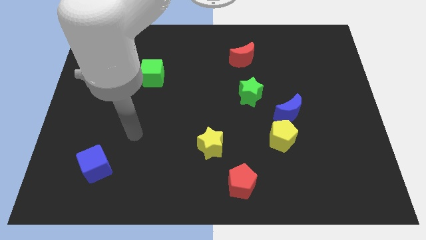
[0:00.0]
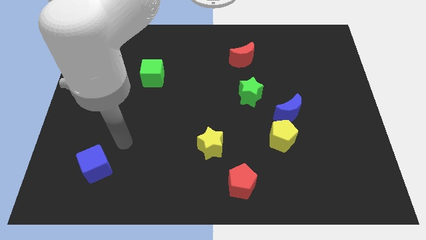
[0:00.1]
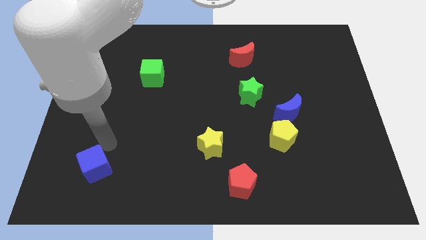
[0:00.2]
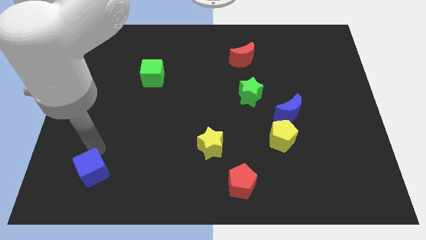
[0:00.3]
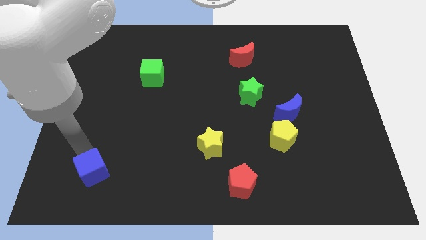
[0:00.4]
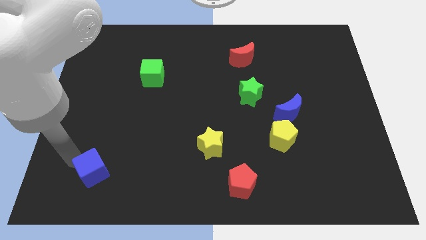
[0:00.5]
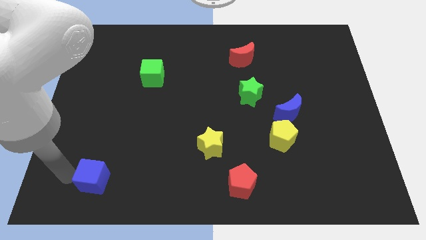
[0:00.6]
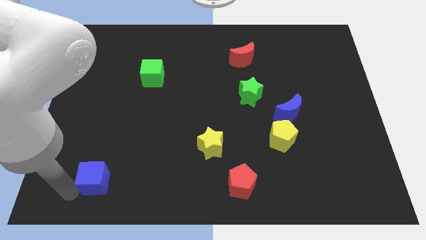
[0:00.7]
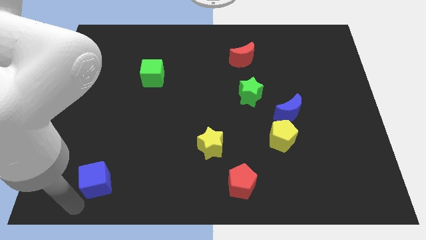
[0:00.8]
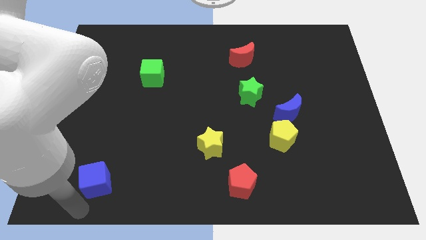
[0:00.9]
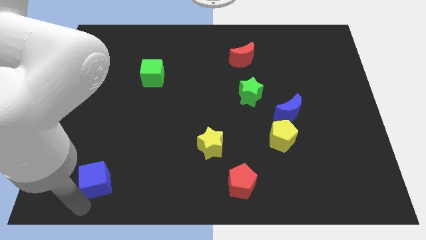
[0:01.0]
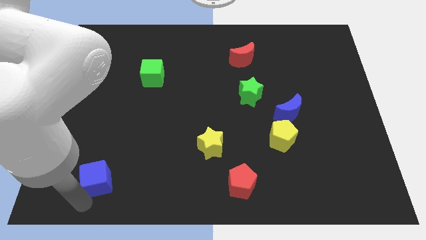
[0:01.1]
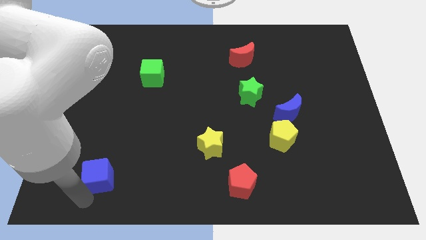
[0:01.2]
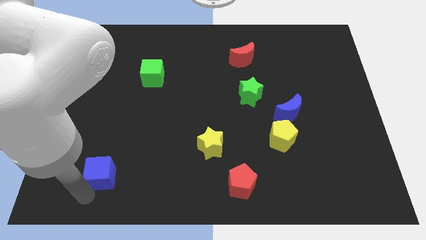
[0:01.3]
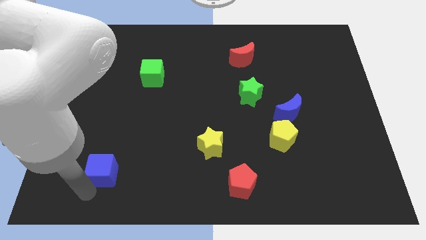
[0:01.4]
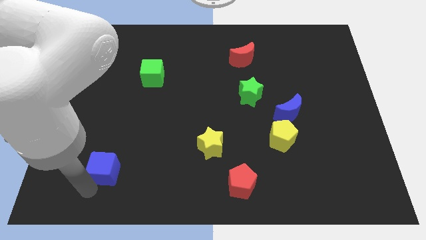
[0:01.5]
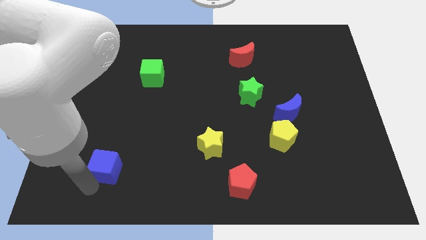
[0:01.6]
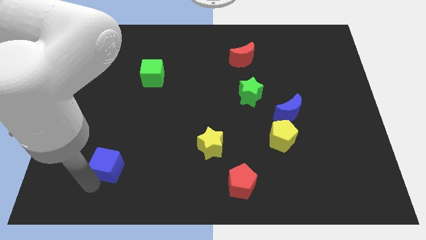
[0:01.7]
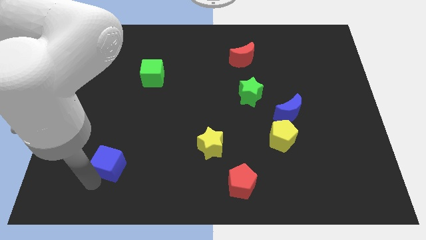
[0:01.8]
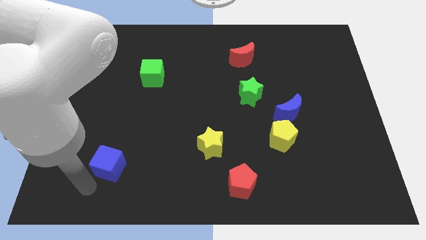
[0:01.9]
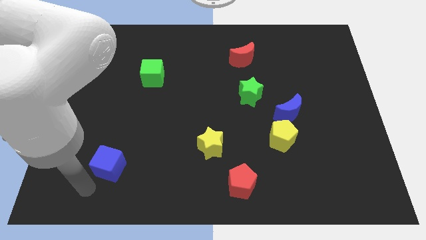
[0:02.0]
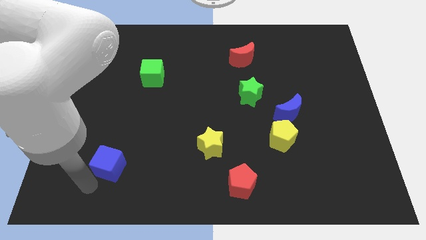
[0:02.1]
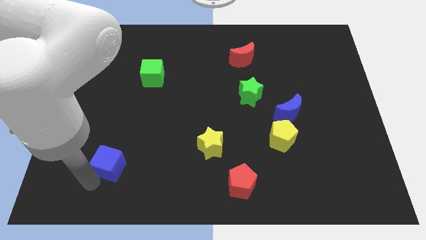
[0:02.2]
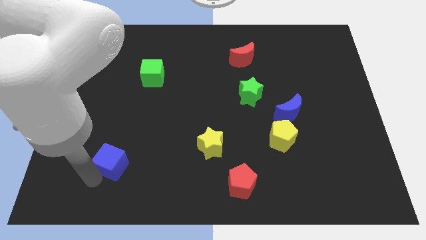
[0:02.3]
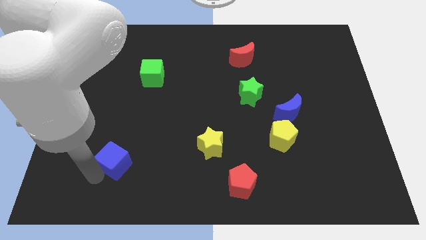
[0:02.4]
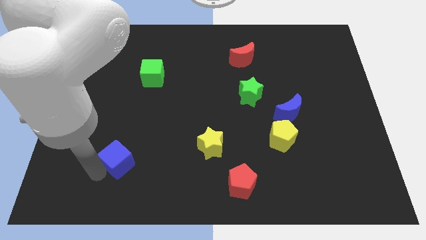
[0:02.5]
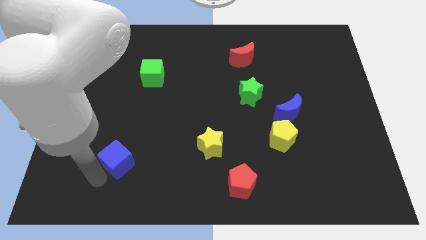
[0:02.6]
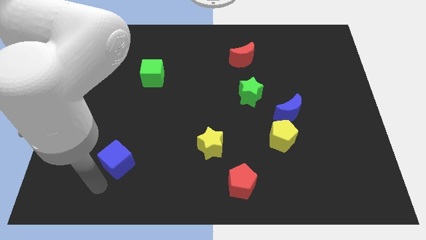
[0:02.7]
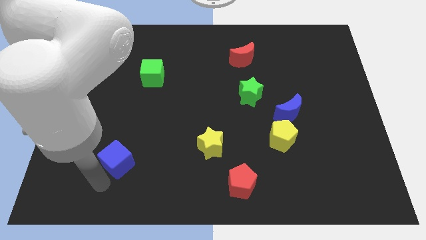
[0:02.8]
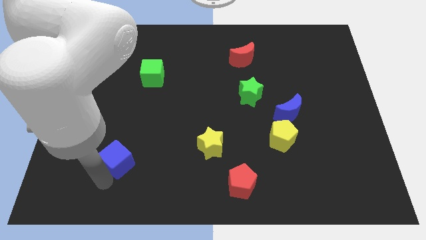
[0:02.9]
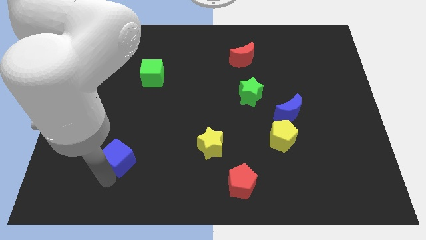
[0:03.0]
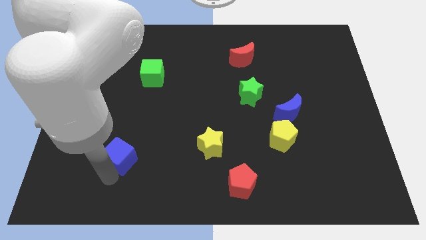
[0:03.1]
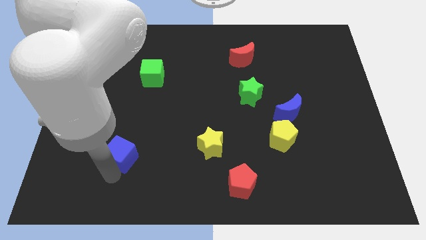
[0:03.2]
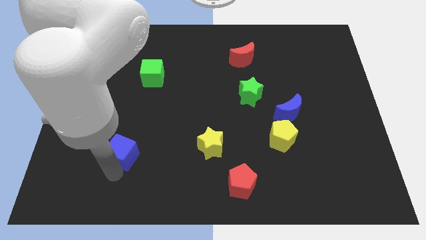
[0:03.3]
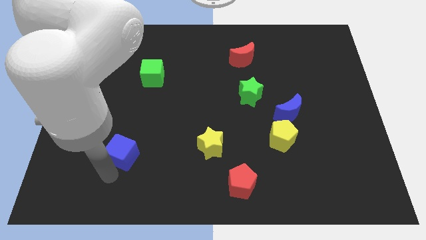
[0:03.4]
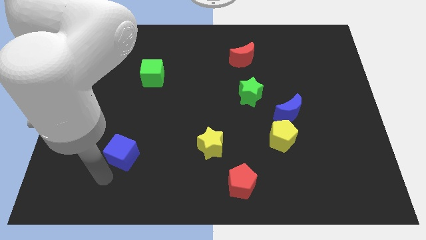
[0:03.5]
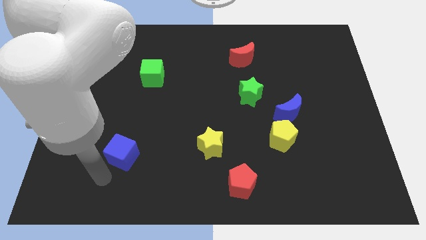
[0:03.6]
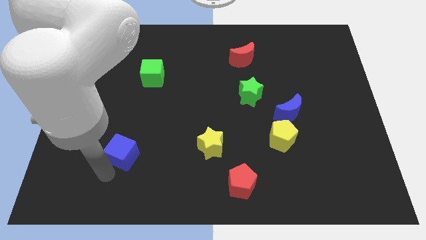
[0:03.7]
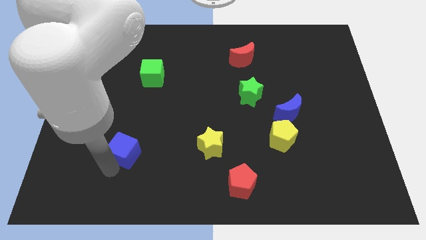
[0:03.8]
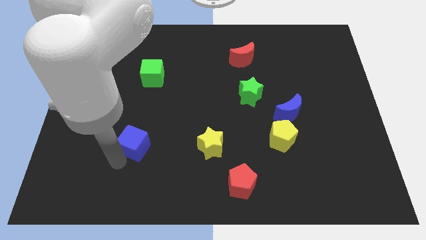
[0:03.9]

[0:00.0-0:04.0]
move the blue cube somewhat up and to the right diagonally

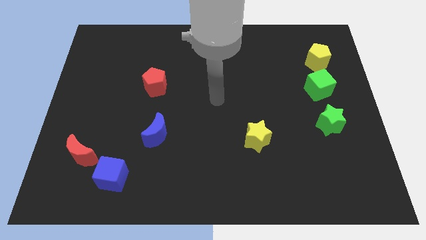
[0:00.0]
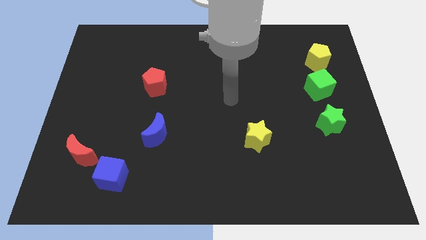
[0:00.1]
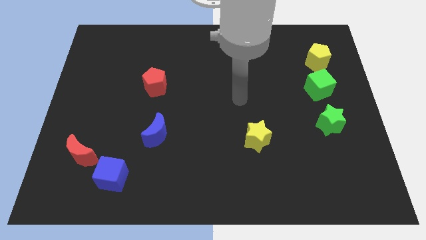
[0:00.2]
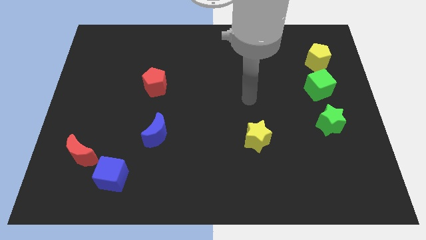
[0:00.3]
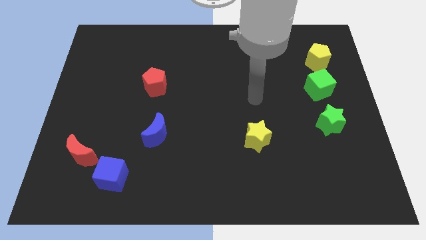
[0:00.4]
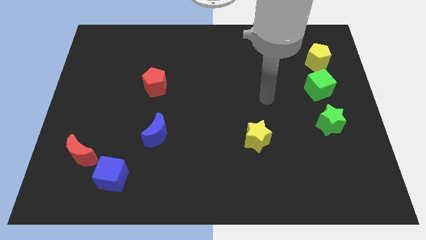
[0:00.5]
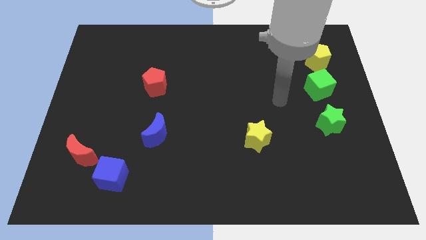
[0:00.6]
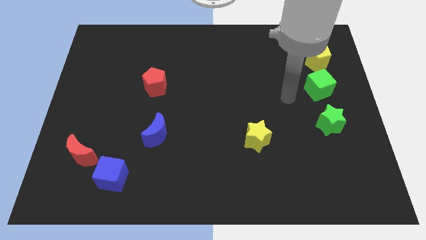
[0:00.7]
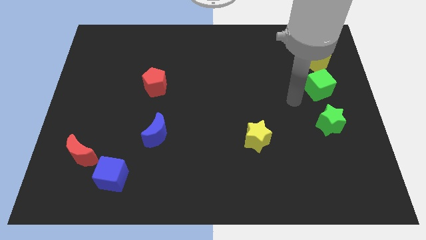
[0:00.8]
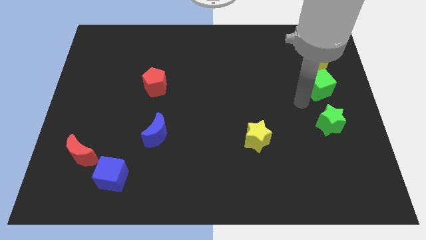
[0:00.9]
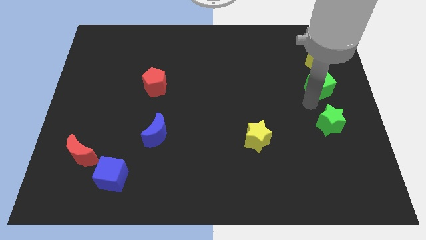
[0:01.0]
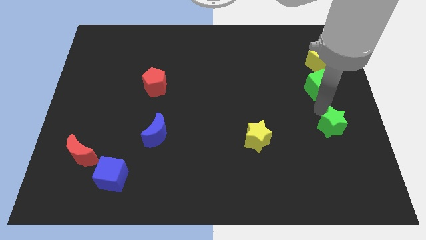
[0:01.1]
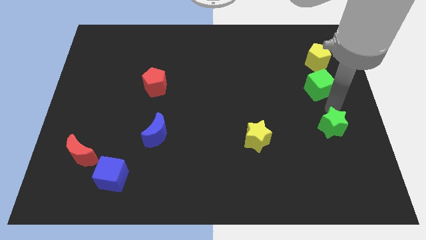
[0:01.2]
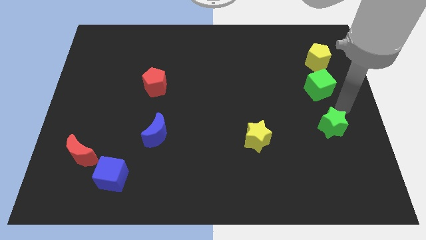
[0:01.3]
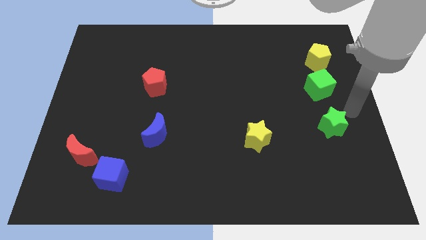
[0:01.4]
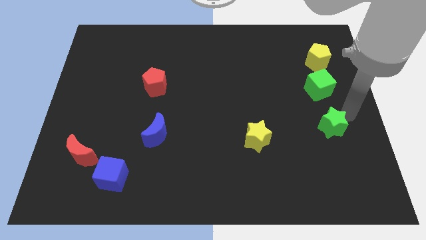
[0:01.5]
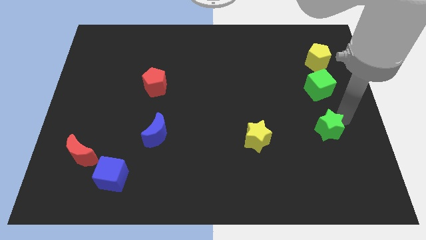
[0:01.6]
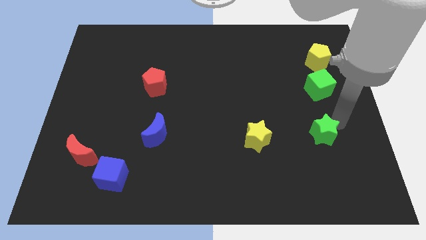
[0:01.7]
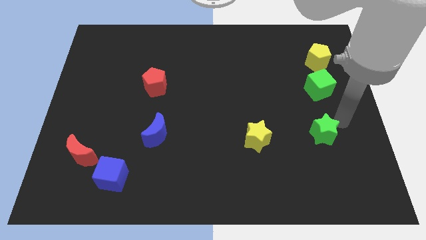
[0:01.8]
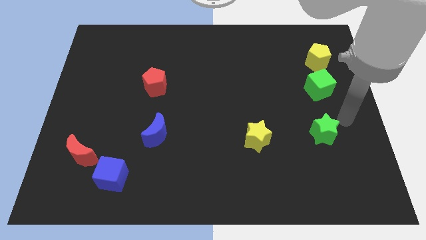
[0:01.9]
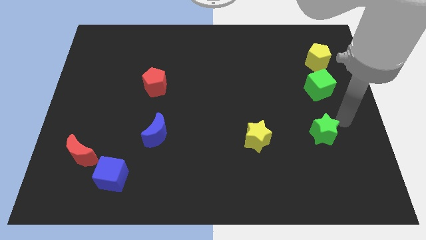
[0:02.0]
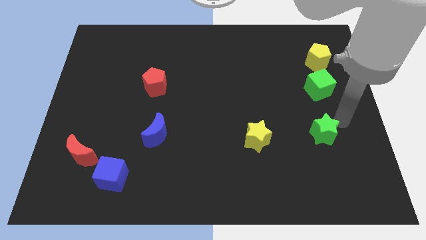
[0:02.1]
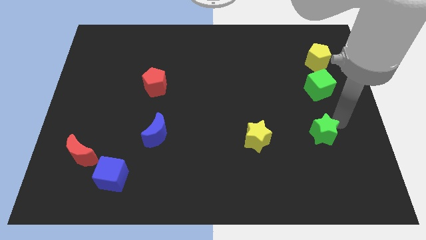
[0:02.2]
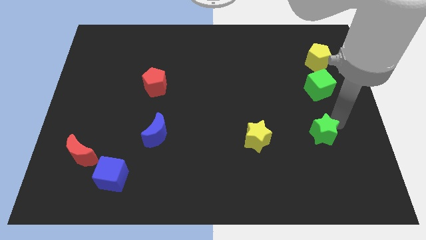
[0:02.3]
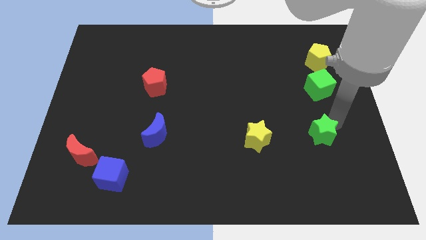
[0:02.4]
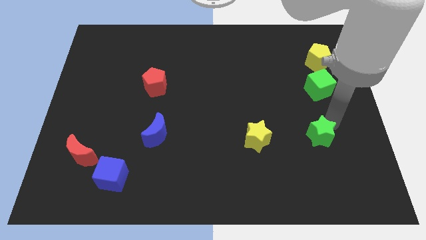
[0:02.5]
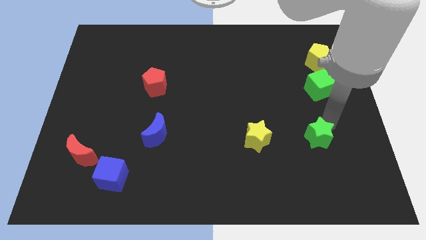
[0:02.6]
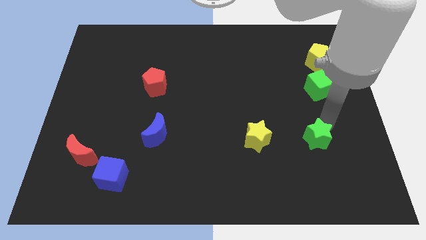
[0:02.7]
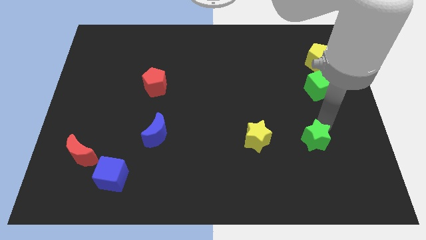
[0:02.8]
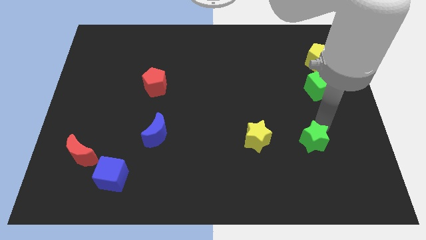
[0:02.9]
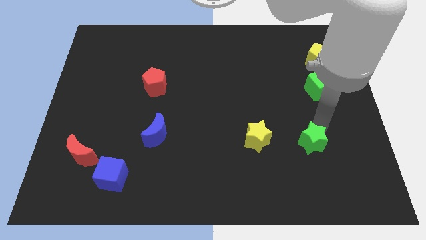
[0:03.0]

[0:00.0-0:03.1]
move the green star diagonally down and left a bit

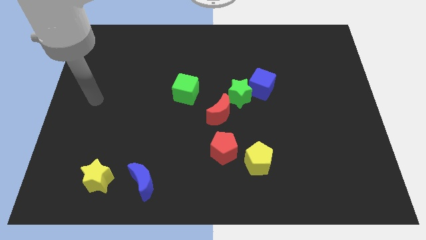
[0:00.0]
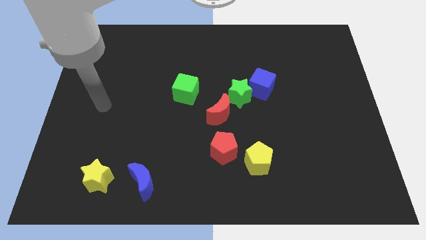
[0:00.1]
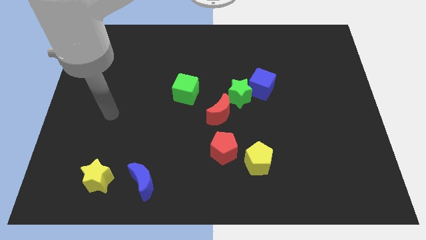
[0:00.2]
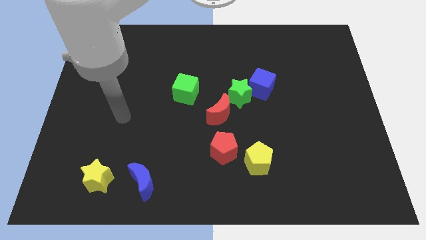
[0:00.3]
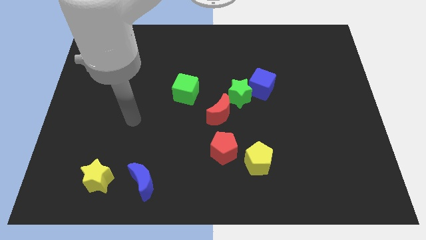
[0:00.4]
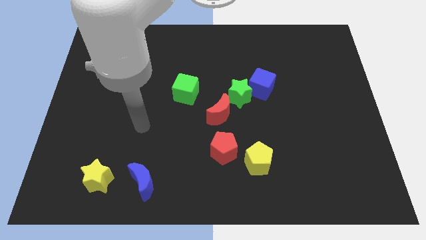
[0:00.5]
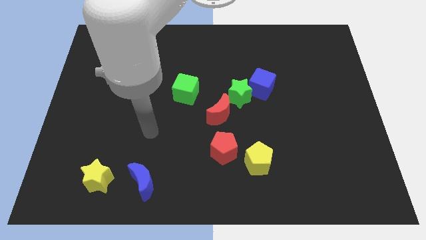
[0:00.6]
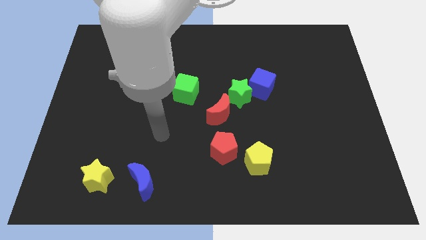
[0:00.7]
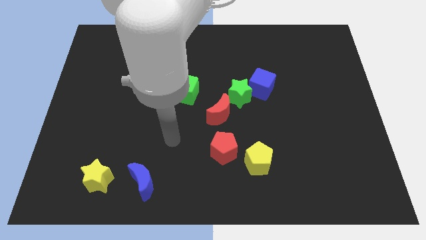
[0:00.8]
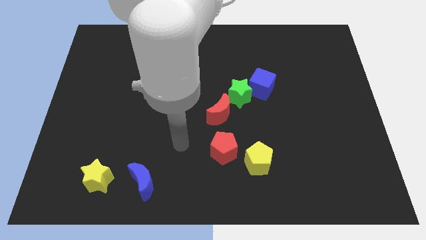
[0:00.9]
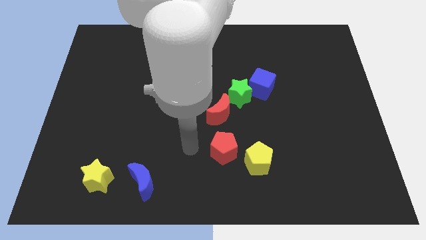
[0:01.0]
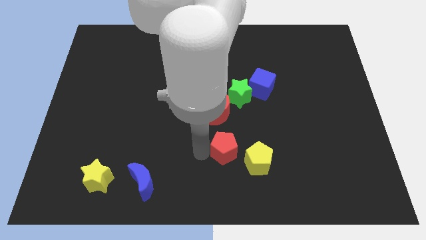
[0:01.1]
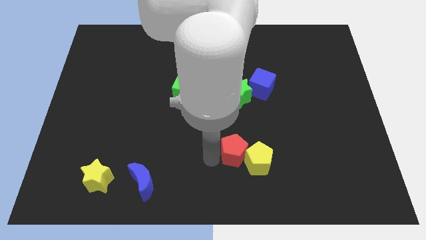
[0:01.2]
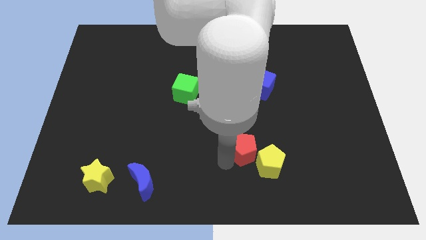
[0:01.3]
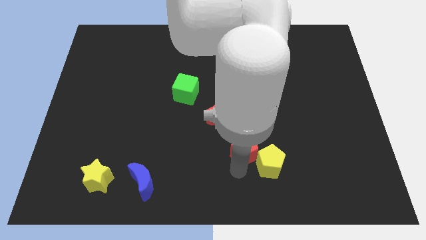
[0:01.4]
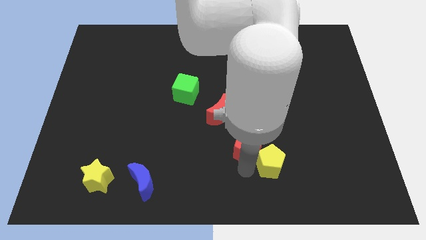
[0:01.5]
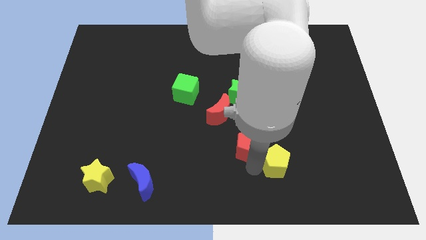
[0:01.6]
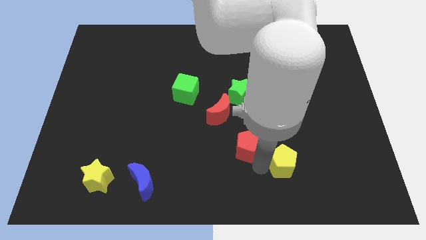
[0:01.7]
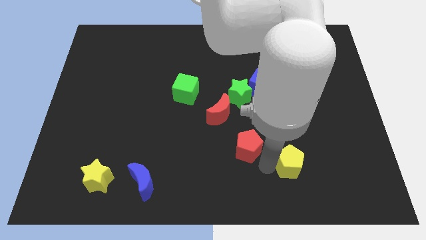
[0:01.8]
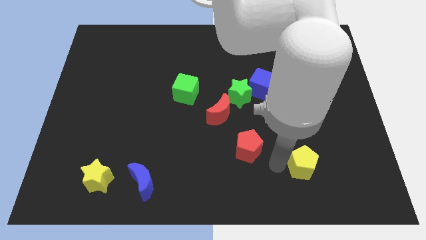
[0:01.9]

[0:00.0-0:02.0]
slightly slide the yellow pentagon to the right
